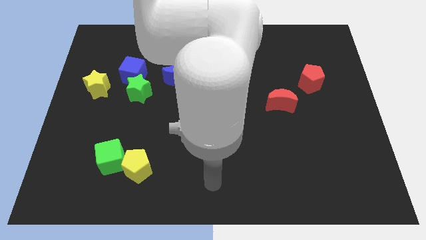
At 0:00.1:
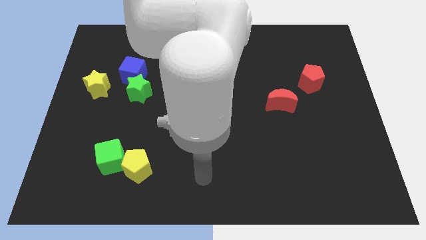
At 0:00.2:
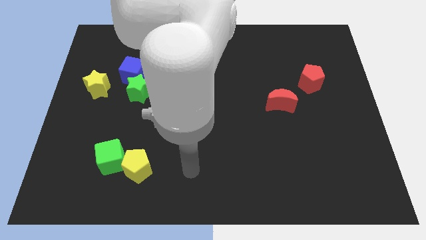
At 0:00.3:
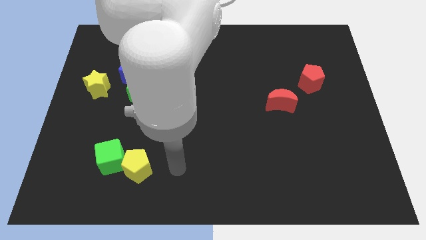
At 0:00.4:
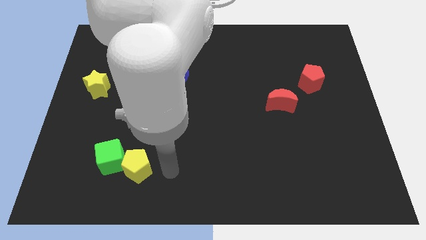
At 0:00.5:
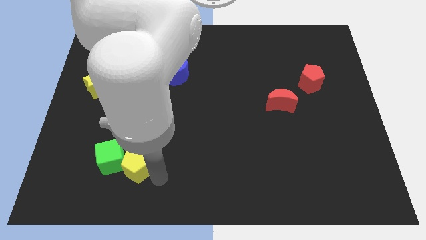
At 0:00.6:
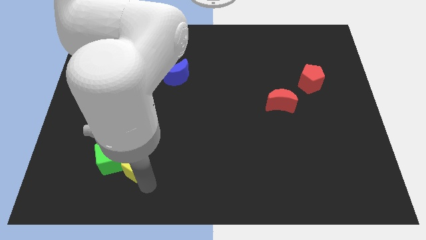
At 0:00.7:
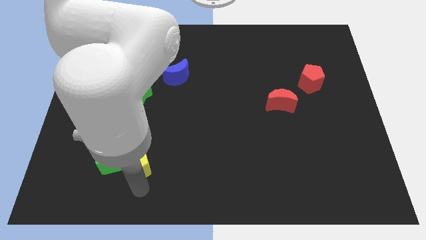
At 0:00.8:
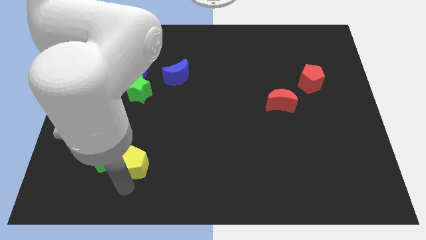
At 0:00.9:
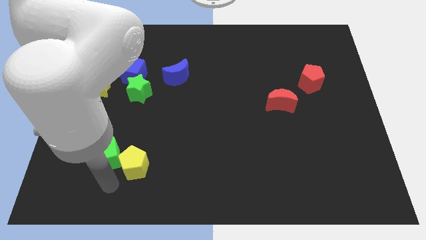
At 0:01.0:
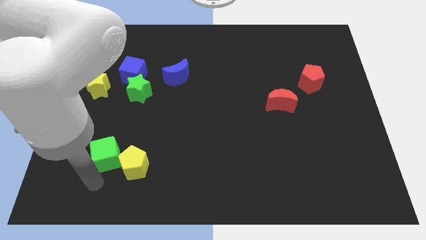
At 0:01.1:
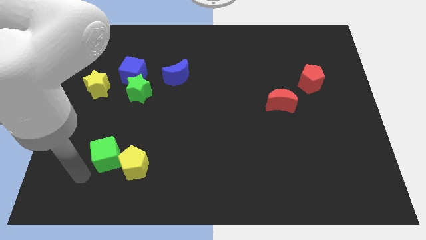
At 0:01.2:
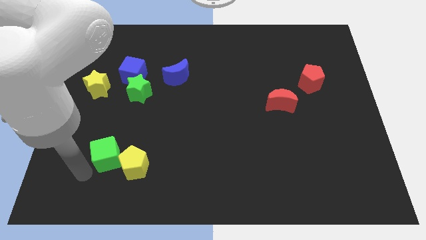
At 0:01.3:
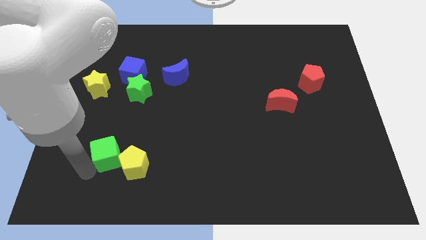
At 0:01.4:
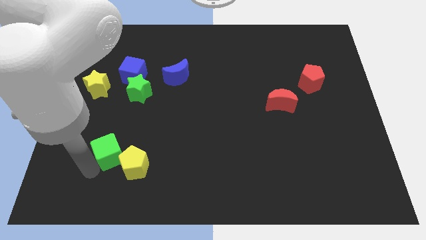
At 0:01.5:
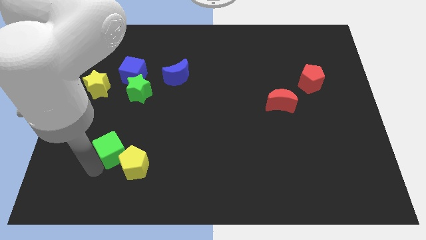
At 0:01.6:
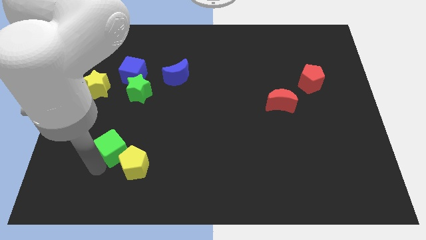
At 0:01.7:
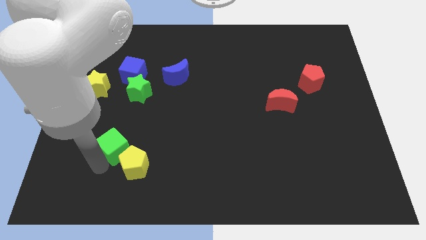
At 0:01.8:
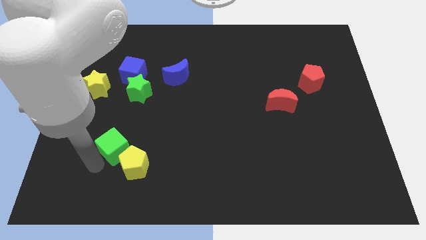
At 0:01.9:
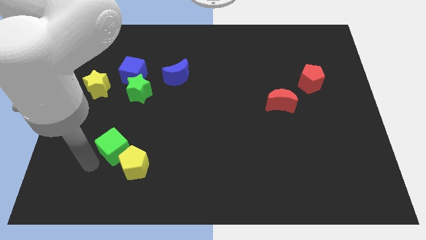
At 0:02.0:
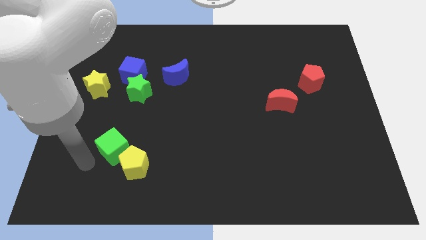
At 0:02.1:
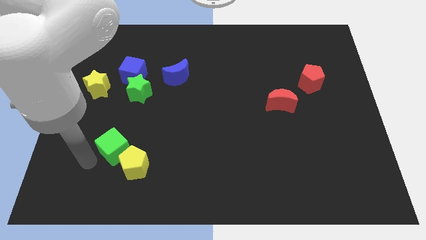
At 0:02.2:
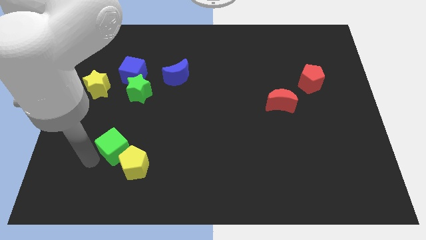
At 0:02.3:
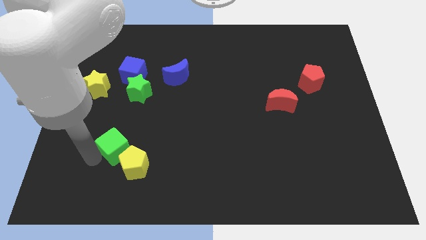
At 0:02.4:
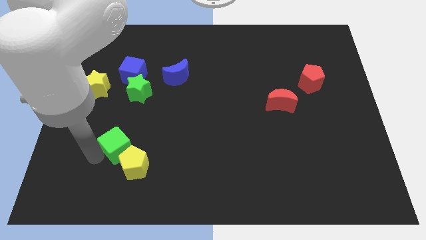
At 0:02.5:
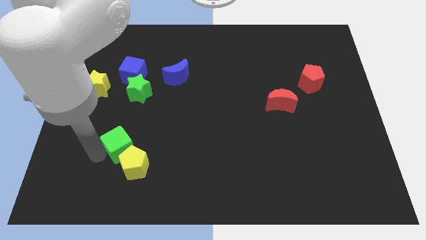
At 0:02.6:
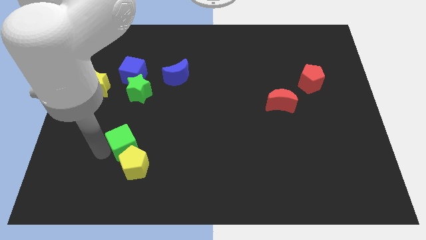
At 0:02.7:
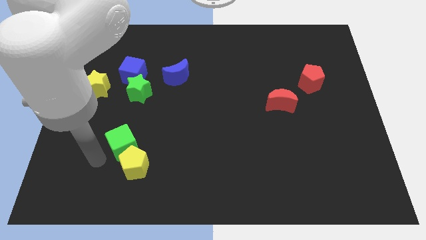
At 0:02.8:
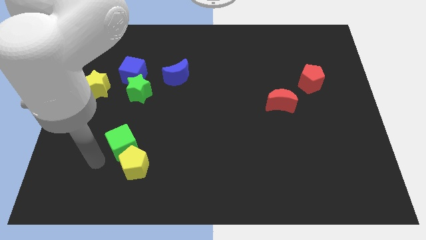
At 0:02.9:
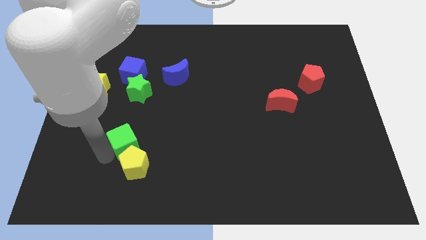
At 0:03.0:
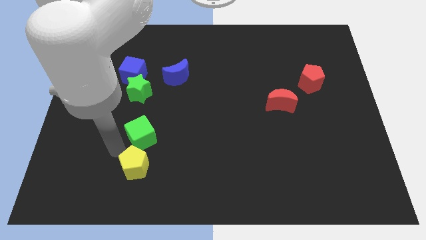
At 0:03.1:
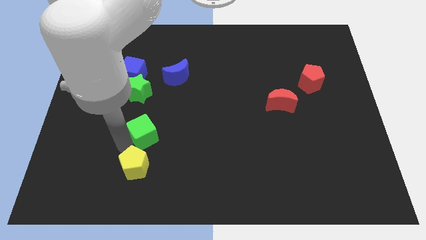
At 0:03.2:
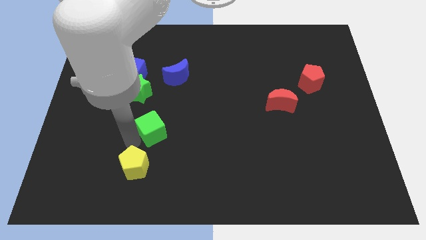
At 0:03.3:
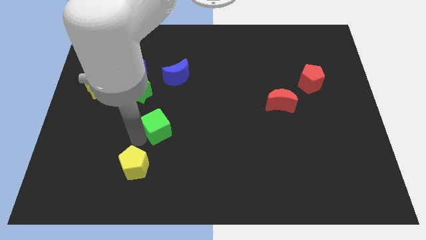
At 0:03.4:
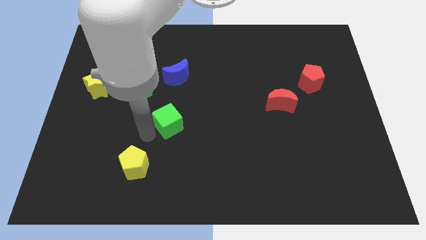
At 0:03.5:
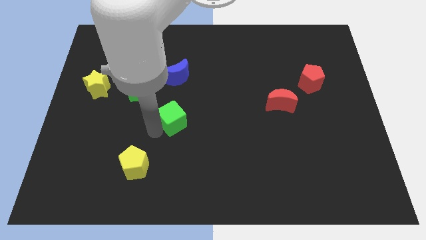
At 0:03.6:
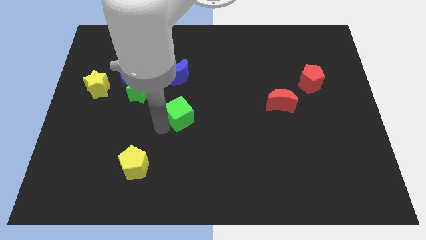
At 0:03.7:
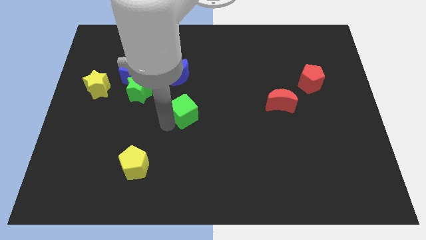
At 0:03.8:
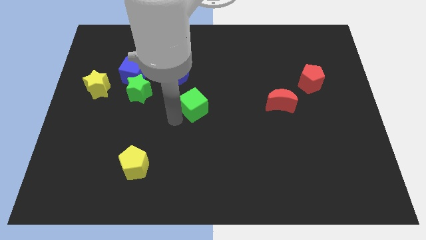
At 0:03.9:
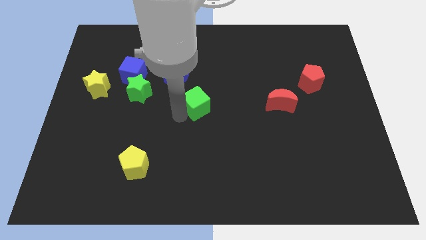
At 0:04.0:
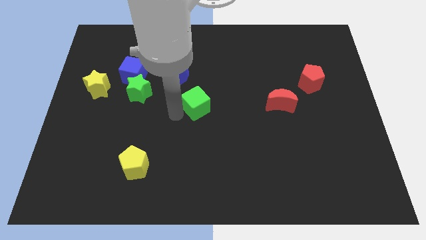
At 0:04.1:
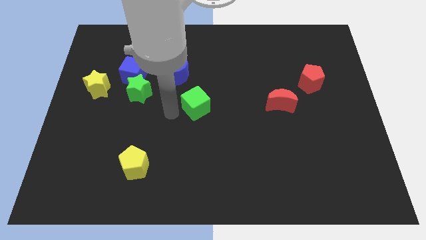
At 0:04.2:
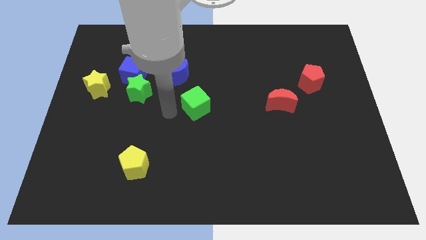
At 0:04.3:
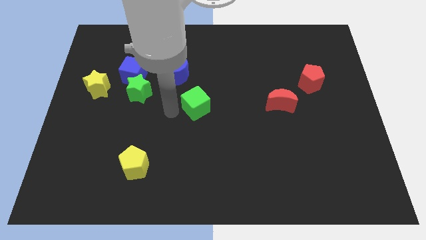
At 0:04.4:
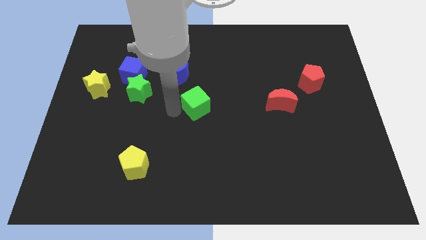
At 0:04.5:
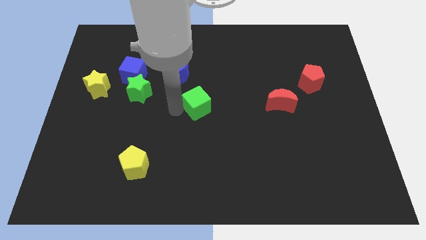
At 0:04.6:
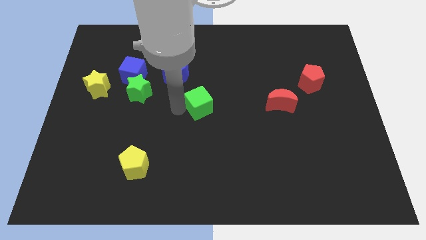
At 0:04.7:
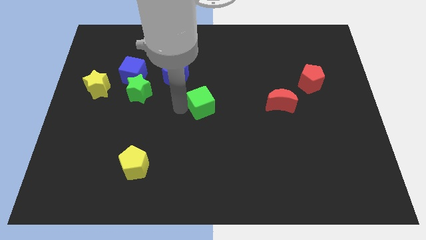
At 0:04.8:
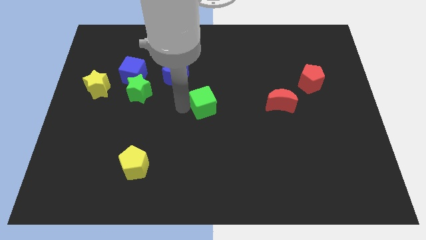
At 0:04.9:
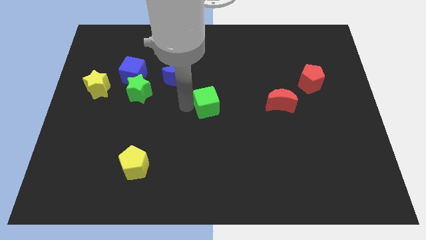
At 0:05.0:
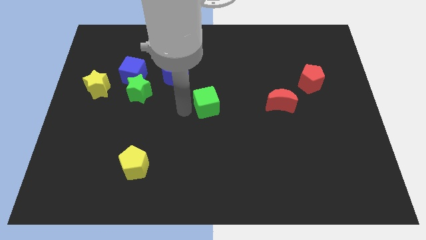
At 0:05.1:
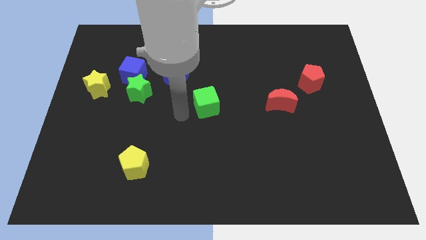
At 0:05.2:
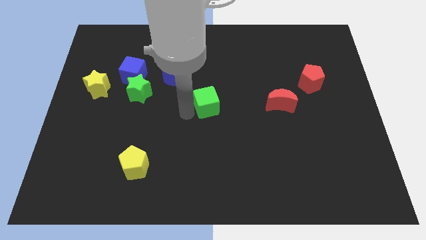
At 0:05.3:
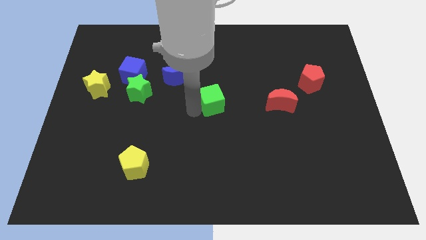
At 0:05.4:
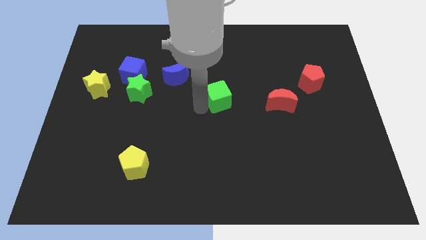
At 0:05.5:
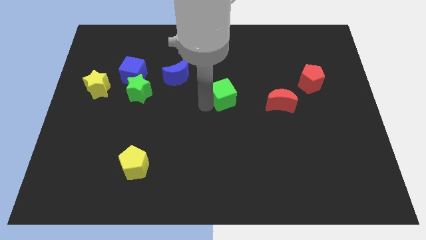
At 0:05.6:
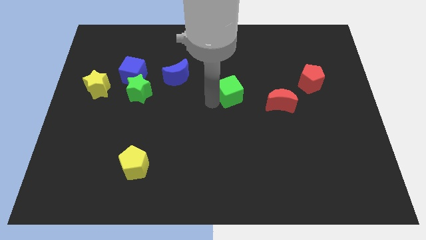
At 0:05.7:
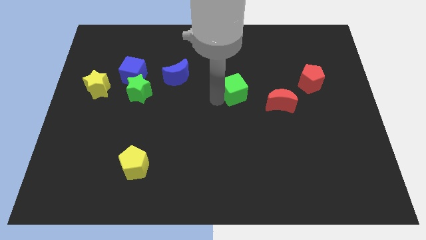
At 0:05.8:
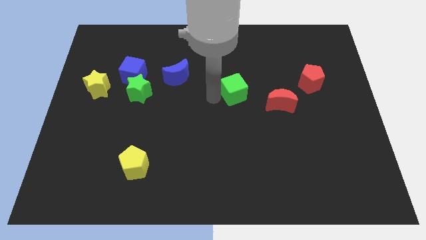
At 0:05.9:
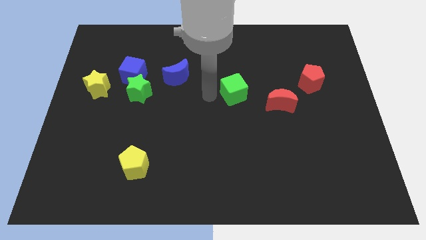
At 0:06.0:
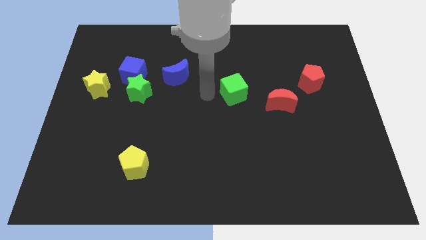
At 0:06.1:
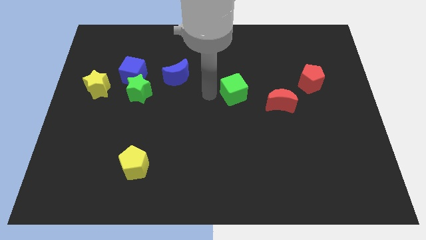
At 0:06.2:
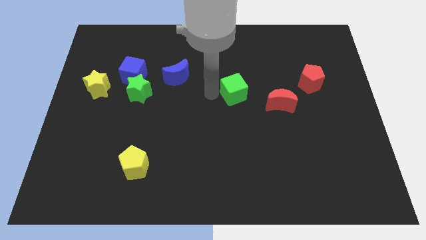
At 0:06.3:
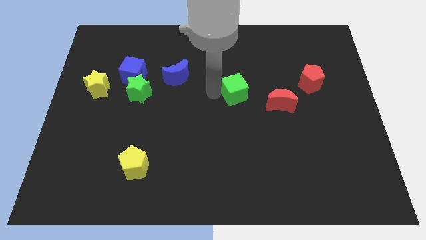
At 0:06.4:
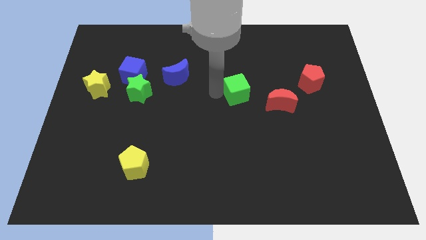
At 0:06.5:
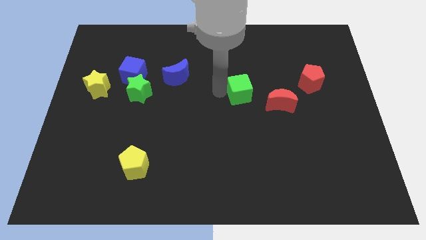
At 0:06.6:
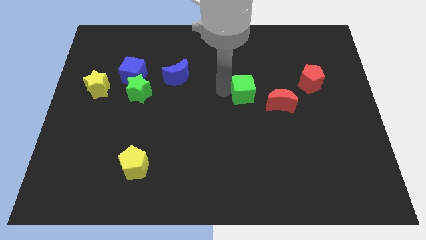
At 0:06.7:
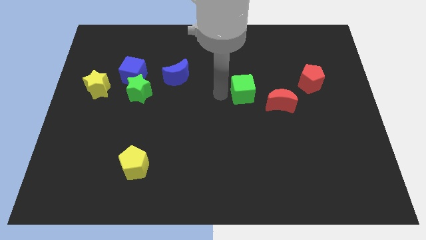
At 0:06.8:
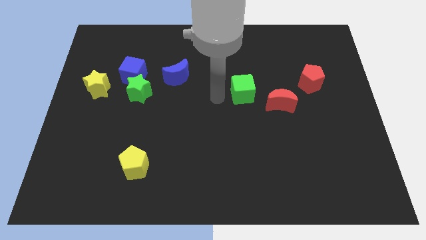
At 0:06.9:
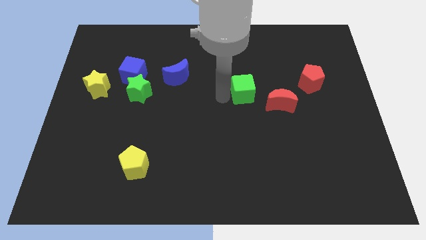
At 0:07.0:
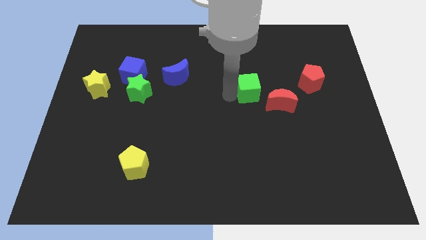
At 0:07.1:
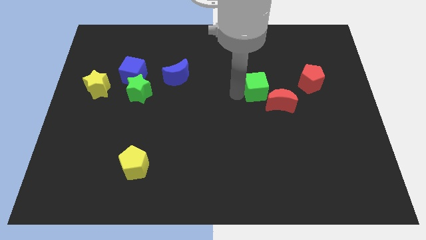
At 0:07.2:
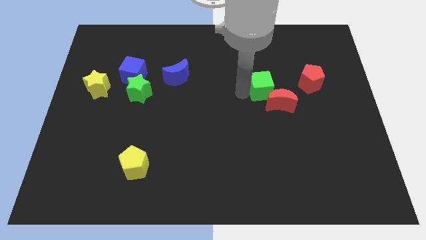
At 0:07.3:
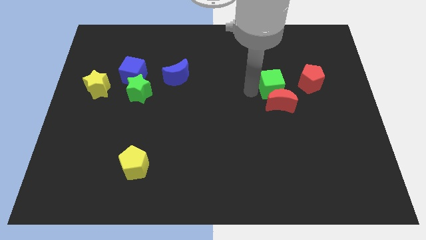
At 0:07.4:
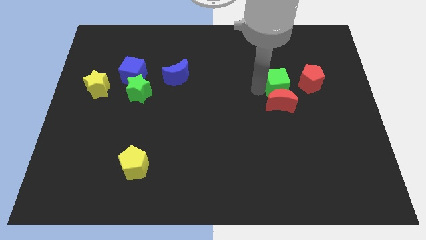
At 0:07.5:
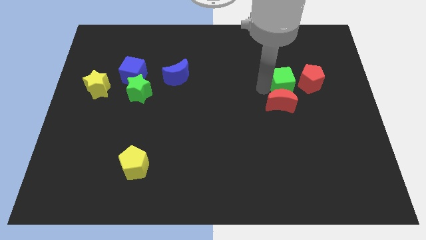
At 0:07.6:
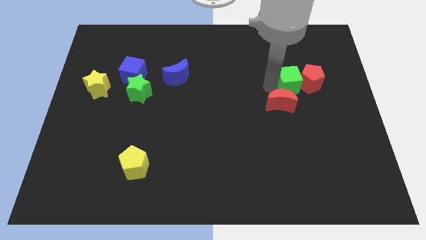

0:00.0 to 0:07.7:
push the green cube to the red pentagon
